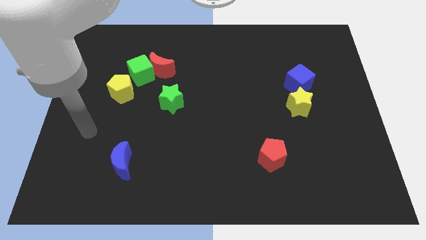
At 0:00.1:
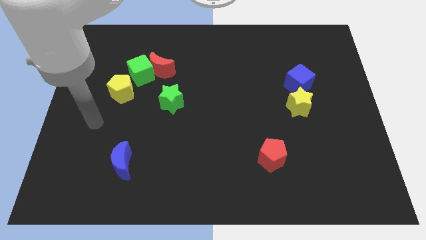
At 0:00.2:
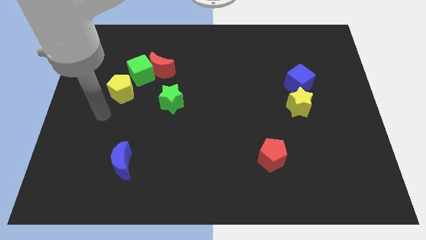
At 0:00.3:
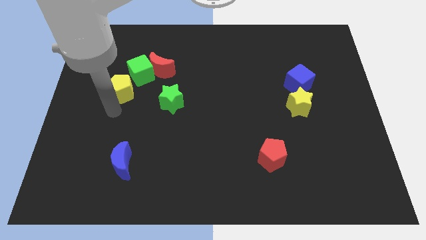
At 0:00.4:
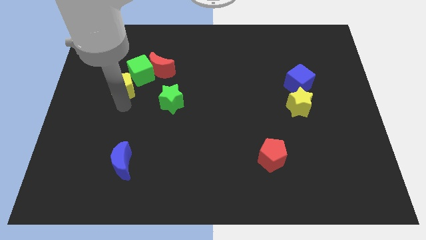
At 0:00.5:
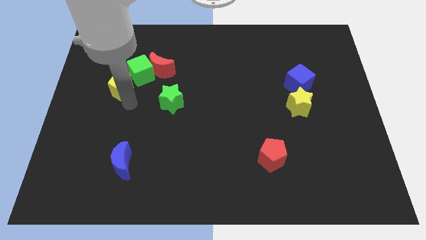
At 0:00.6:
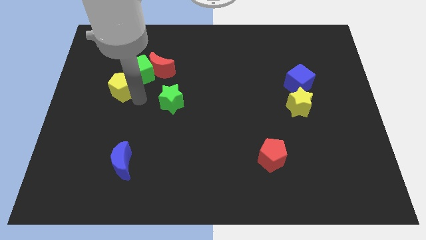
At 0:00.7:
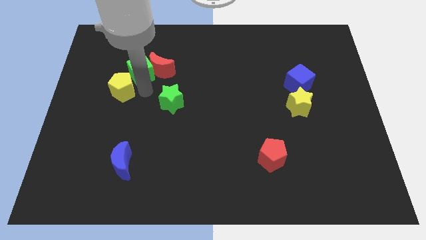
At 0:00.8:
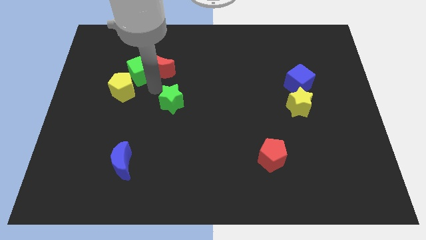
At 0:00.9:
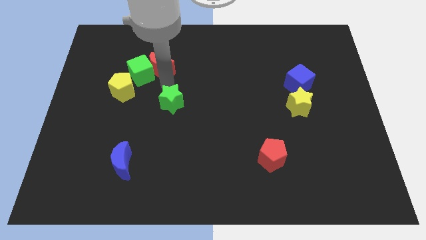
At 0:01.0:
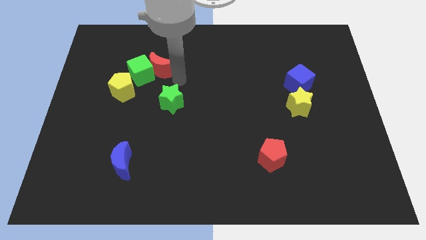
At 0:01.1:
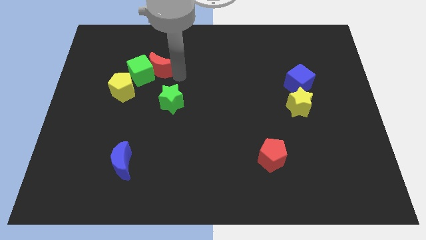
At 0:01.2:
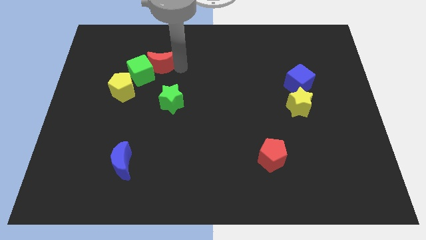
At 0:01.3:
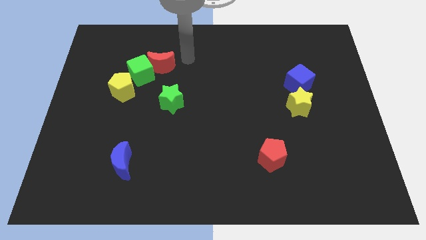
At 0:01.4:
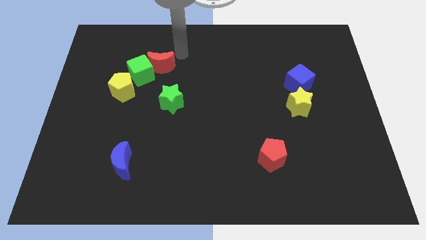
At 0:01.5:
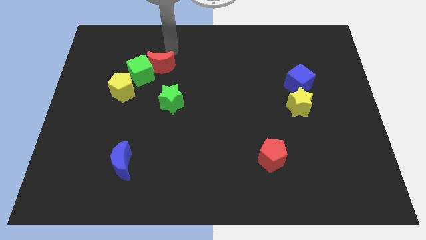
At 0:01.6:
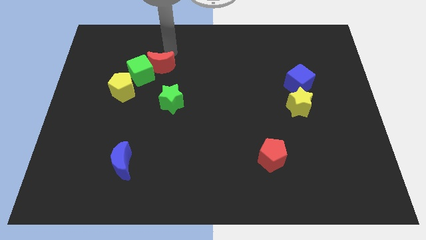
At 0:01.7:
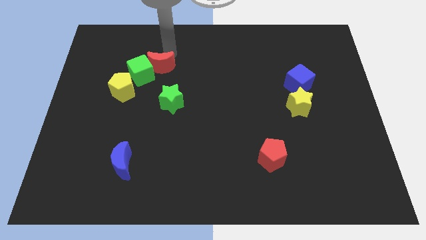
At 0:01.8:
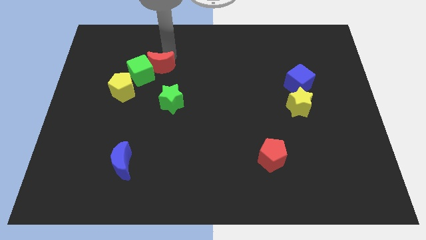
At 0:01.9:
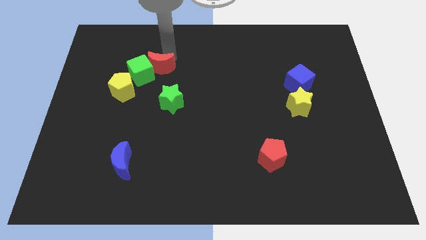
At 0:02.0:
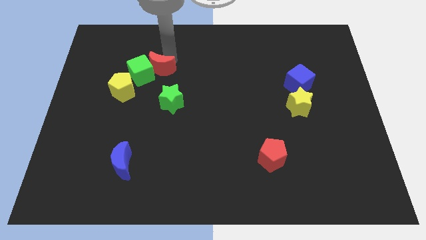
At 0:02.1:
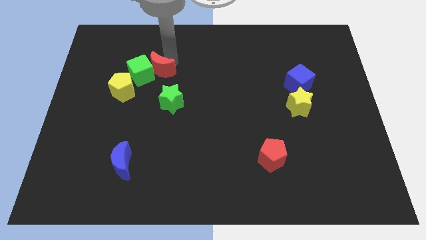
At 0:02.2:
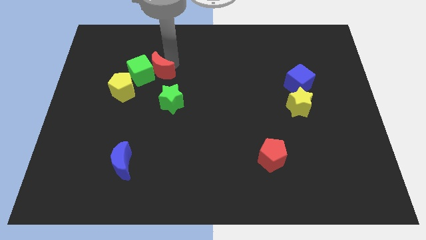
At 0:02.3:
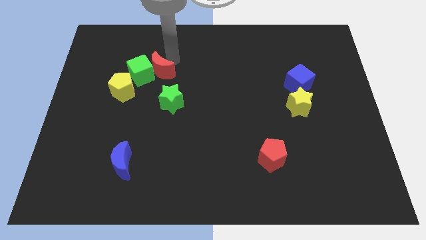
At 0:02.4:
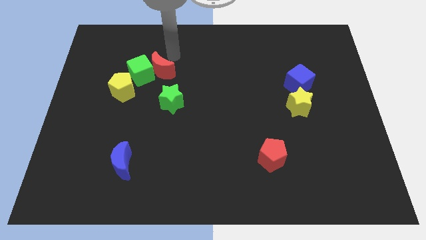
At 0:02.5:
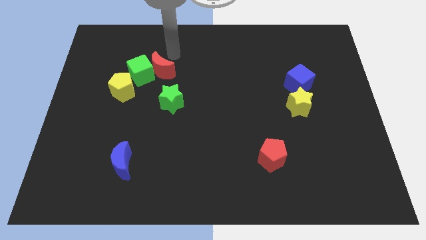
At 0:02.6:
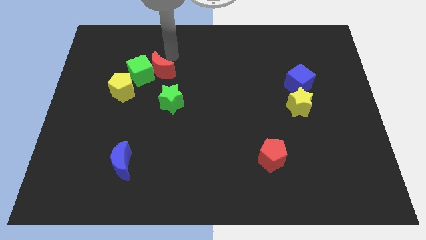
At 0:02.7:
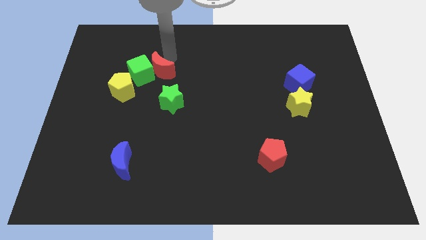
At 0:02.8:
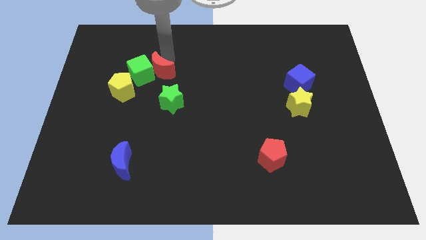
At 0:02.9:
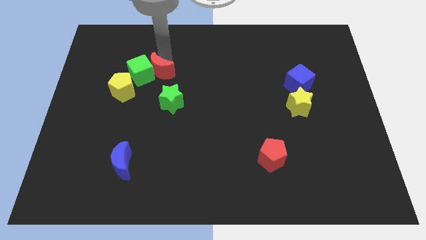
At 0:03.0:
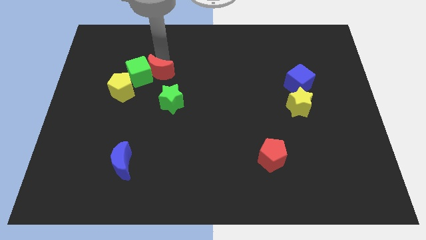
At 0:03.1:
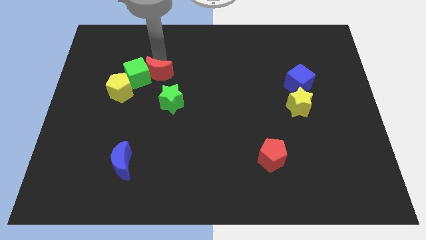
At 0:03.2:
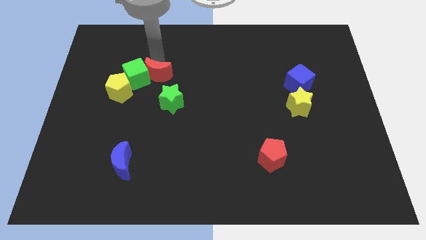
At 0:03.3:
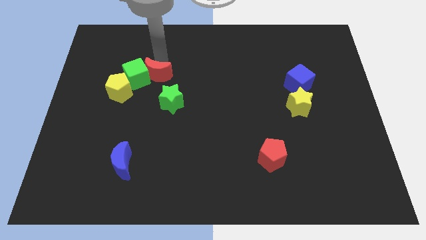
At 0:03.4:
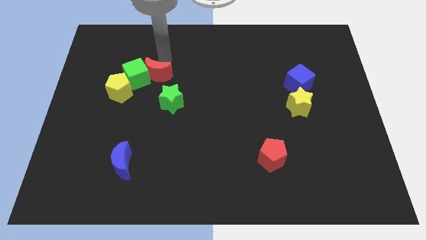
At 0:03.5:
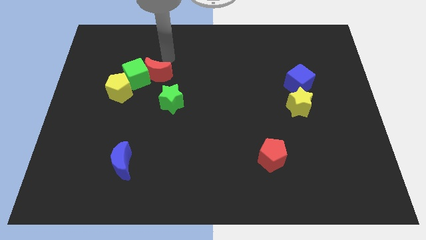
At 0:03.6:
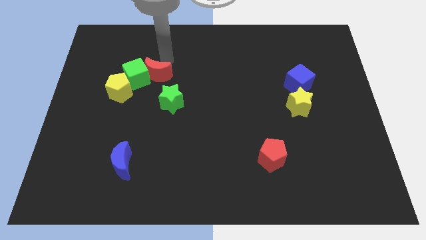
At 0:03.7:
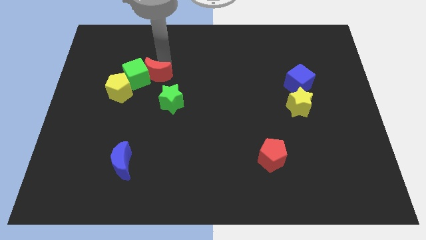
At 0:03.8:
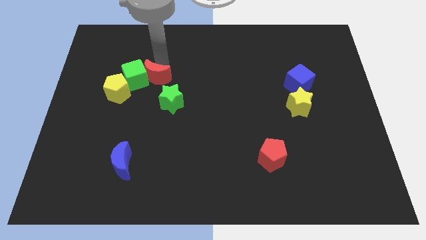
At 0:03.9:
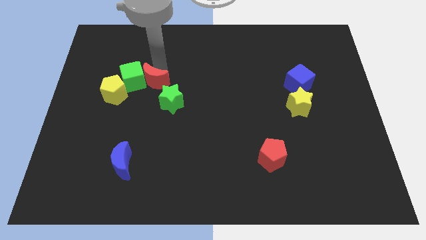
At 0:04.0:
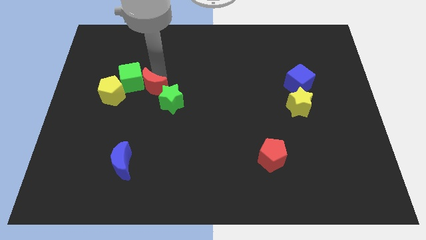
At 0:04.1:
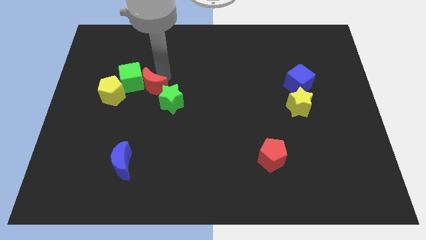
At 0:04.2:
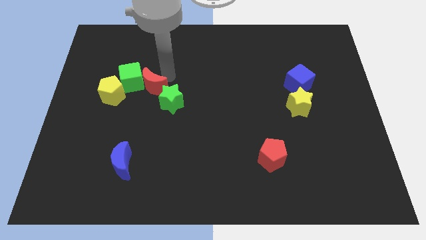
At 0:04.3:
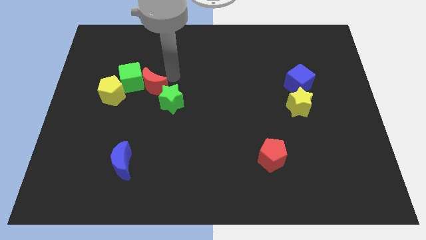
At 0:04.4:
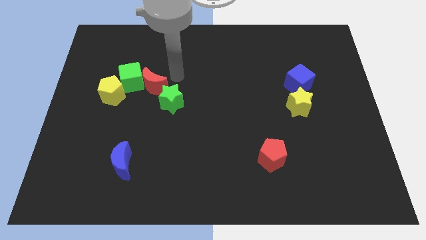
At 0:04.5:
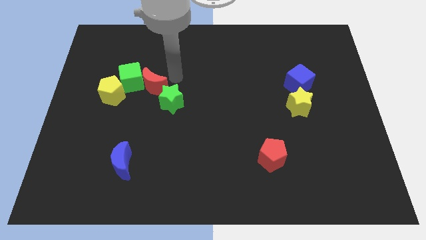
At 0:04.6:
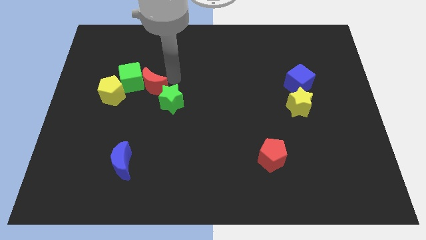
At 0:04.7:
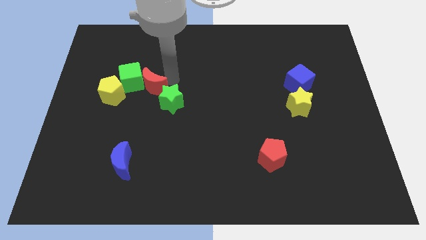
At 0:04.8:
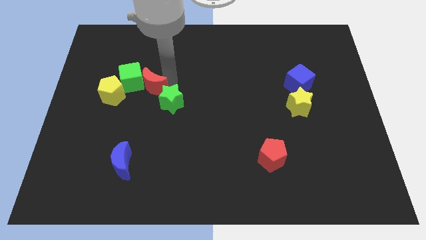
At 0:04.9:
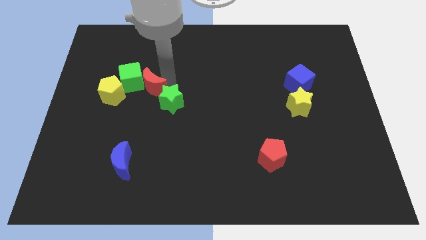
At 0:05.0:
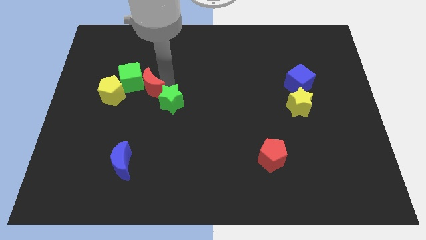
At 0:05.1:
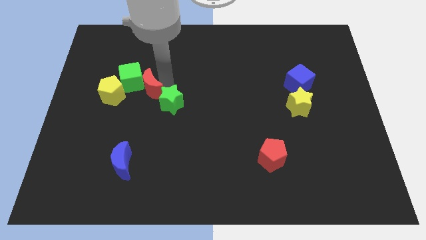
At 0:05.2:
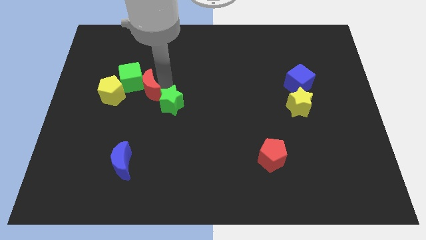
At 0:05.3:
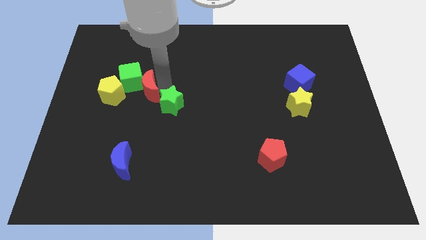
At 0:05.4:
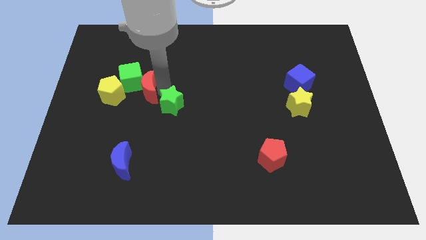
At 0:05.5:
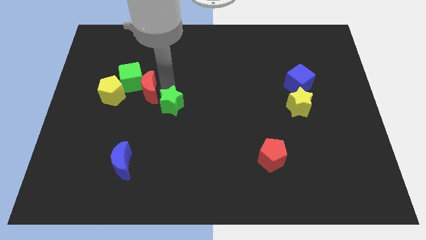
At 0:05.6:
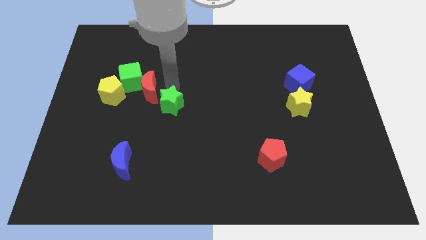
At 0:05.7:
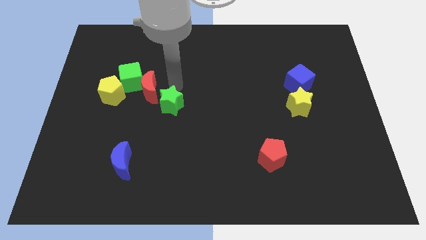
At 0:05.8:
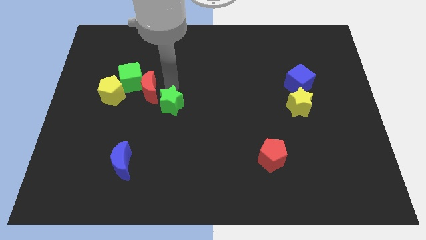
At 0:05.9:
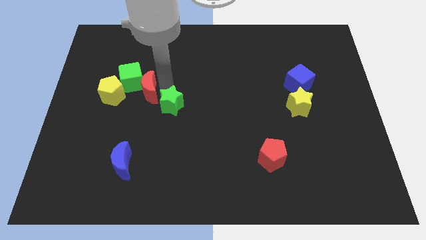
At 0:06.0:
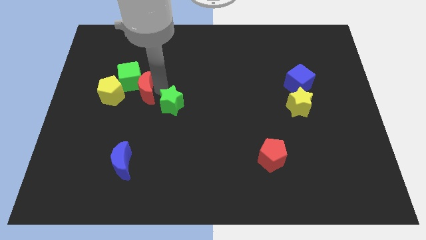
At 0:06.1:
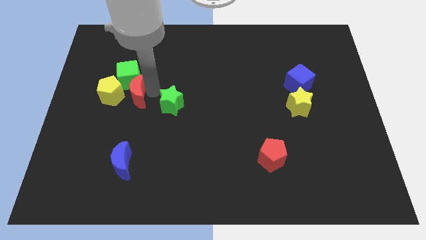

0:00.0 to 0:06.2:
move the red moon to the yellow pentagon

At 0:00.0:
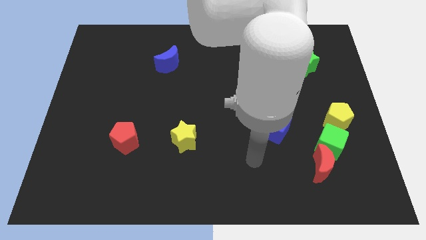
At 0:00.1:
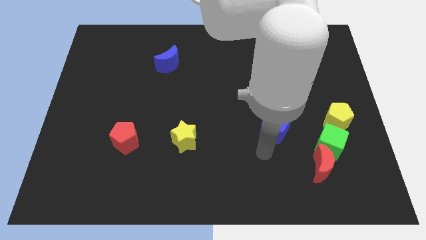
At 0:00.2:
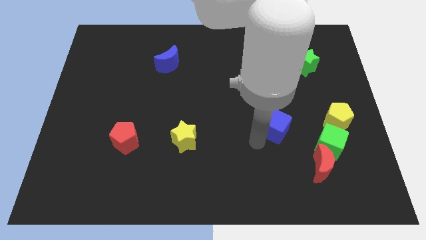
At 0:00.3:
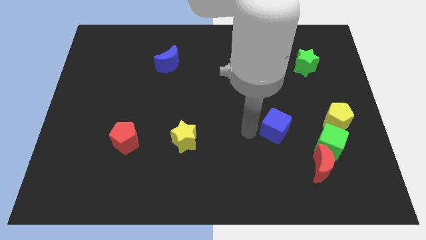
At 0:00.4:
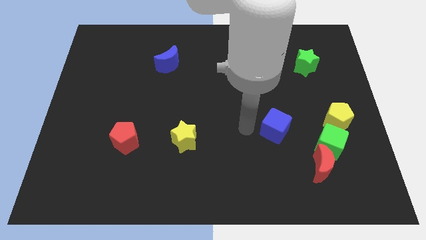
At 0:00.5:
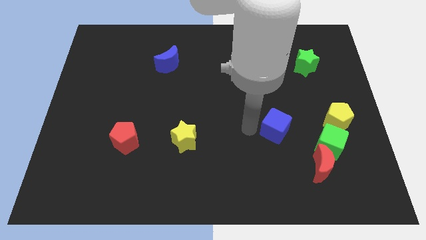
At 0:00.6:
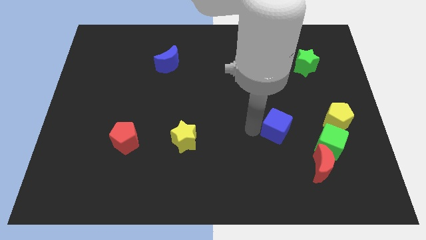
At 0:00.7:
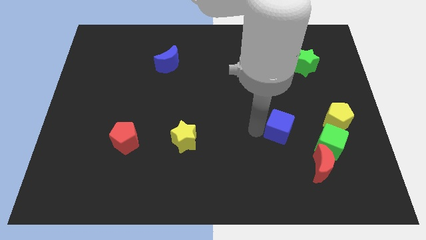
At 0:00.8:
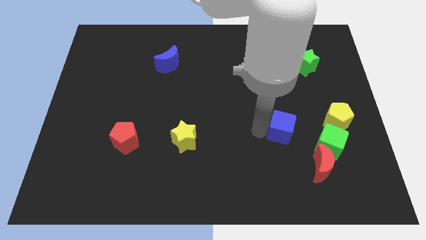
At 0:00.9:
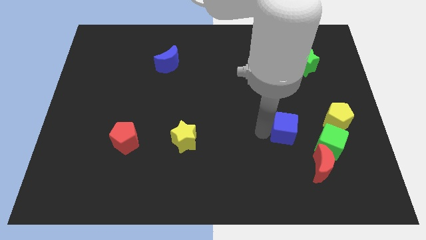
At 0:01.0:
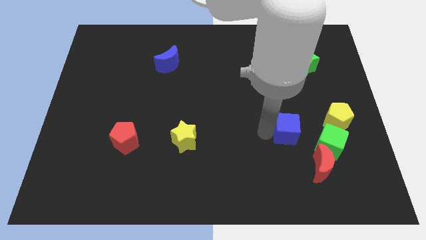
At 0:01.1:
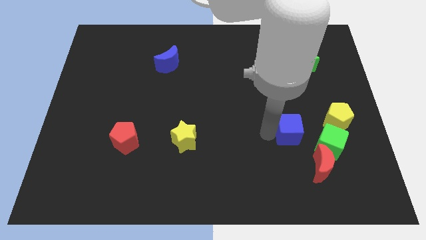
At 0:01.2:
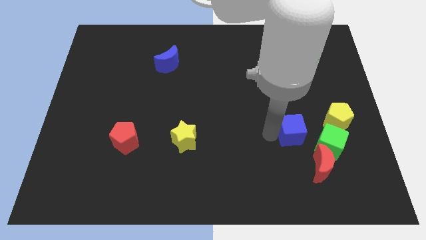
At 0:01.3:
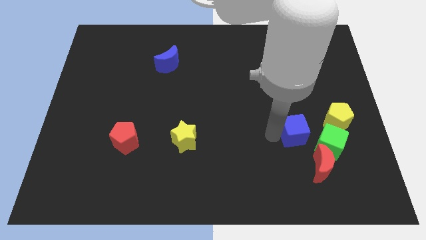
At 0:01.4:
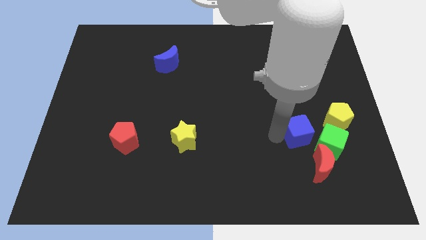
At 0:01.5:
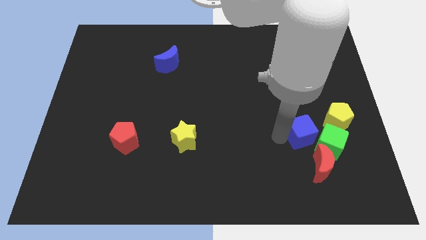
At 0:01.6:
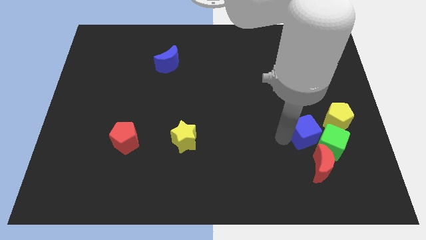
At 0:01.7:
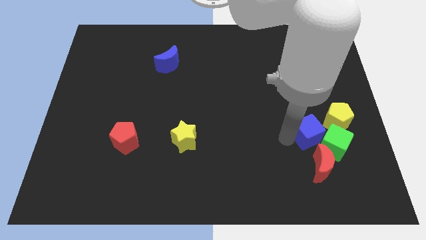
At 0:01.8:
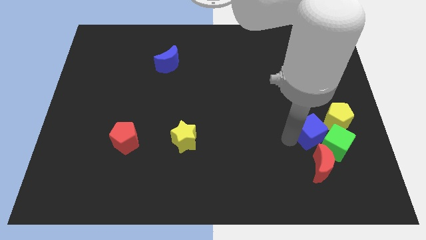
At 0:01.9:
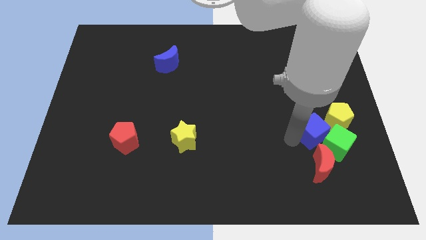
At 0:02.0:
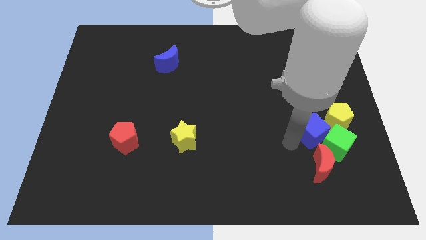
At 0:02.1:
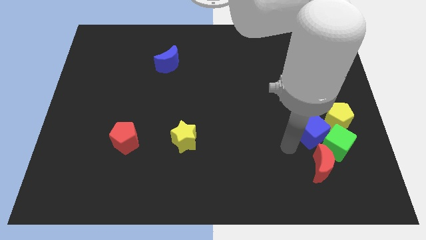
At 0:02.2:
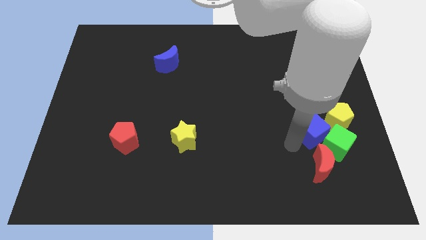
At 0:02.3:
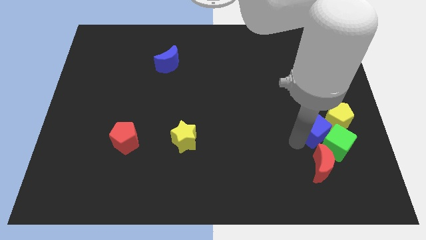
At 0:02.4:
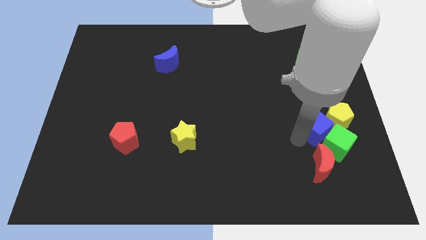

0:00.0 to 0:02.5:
slide the blue cube to the yellow pentagon
